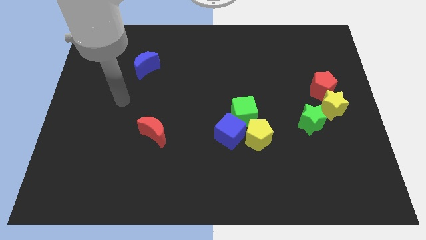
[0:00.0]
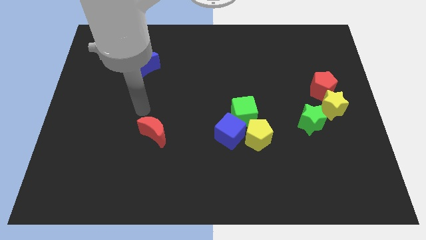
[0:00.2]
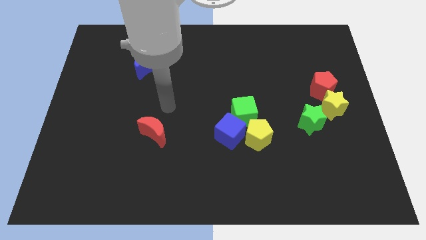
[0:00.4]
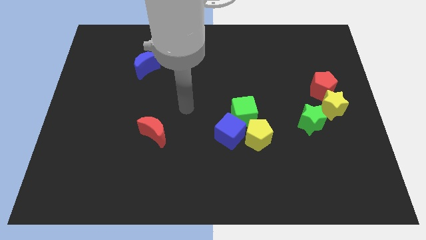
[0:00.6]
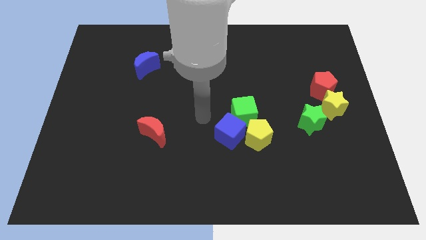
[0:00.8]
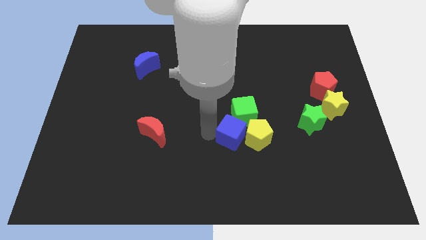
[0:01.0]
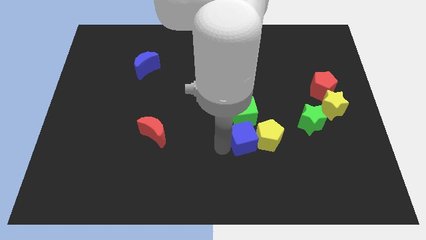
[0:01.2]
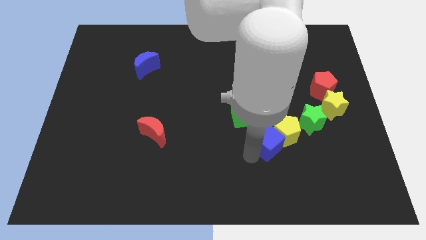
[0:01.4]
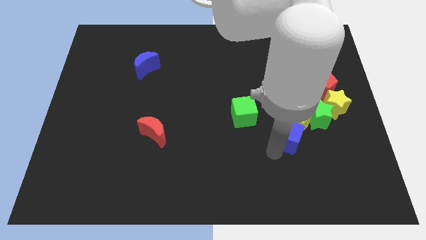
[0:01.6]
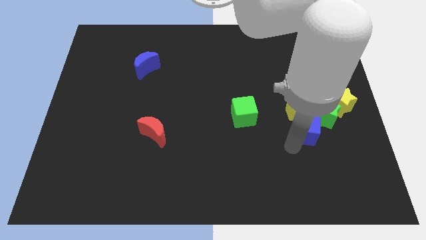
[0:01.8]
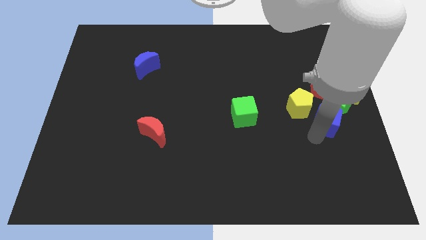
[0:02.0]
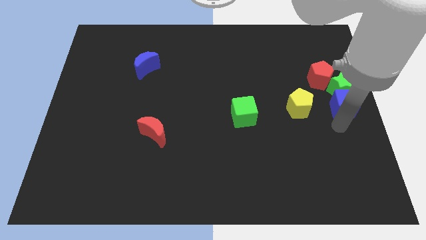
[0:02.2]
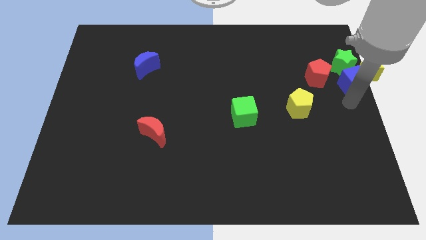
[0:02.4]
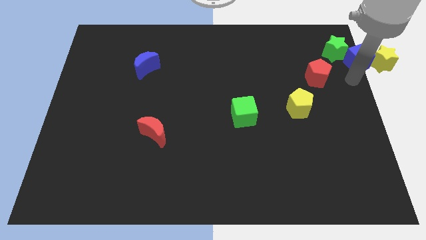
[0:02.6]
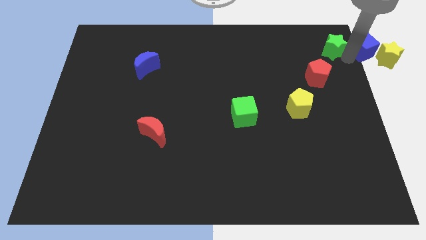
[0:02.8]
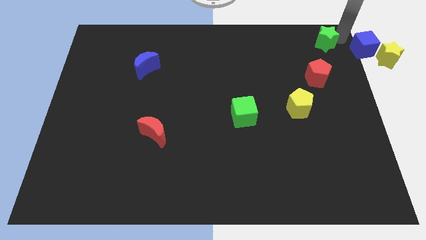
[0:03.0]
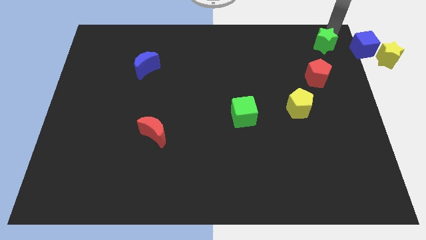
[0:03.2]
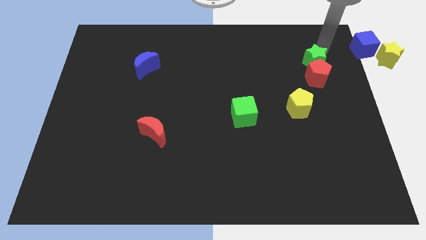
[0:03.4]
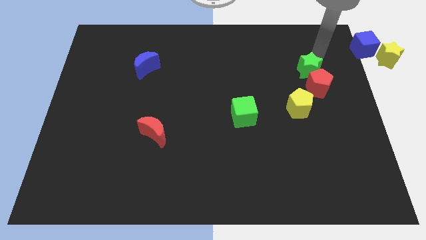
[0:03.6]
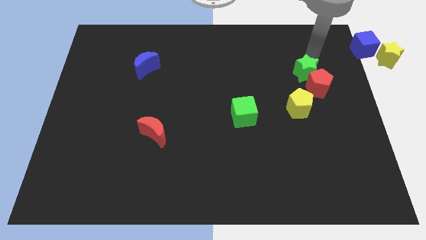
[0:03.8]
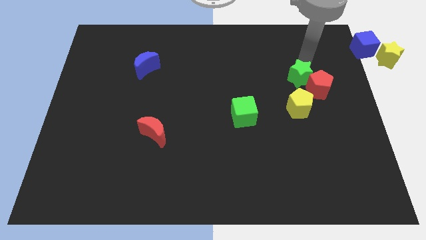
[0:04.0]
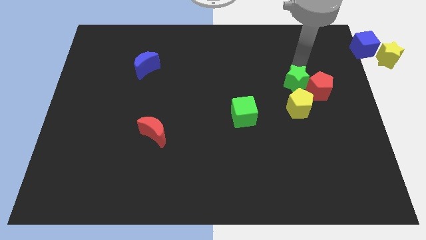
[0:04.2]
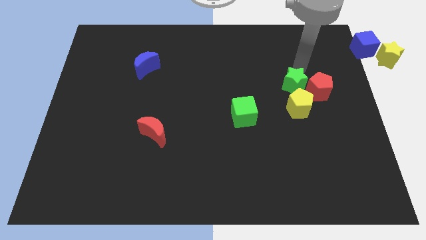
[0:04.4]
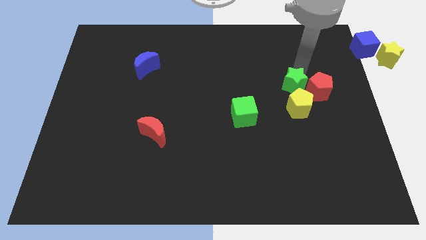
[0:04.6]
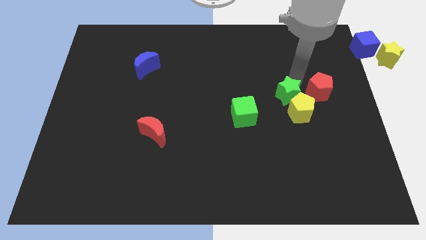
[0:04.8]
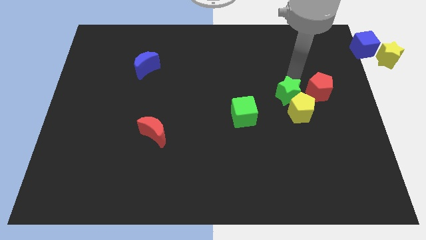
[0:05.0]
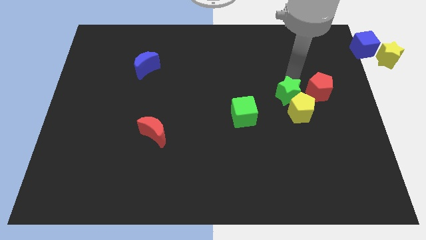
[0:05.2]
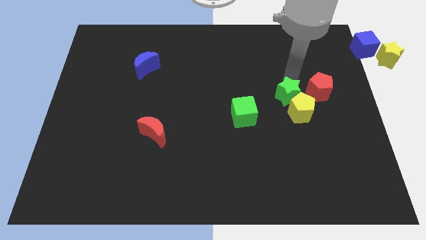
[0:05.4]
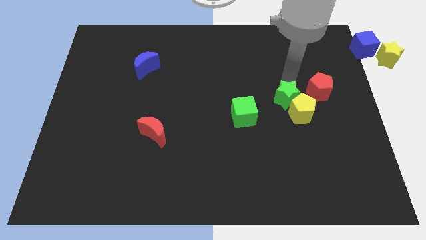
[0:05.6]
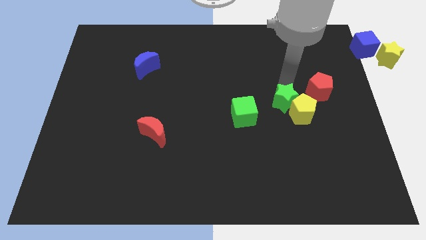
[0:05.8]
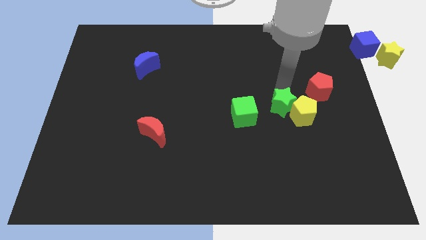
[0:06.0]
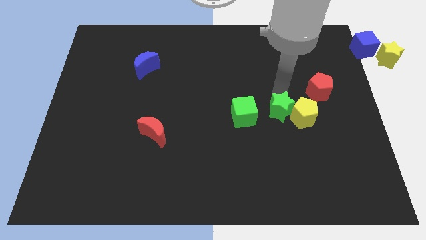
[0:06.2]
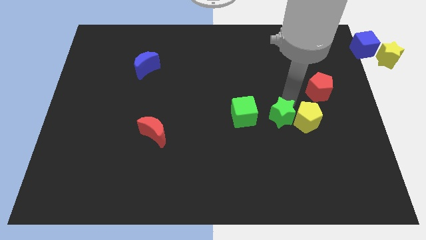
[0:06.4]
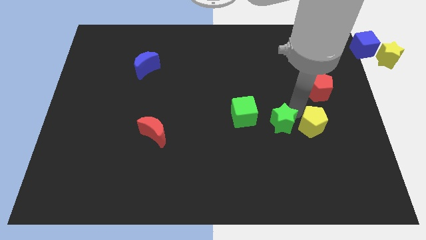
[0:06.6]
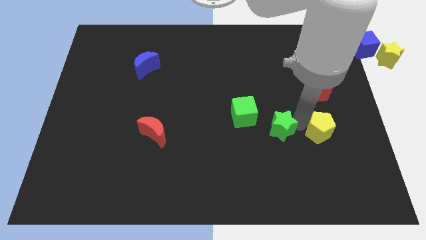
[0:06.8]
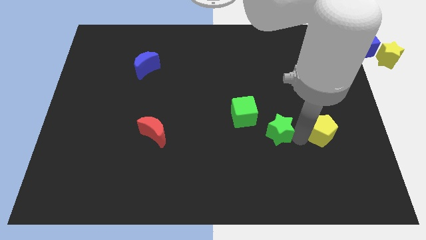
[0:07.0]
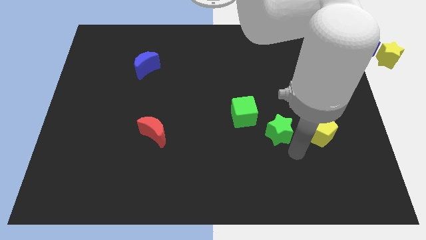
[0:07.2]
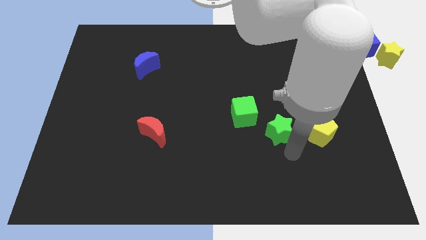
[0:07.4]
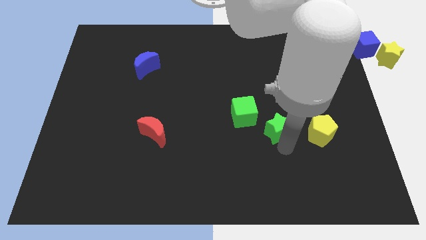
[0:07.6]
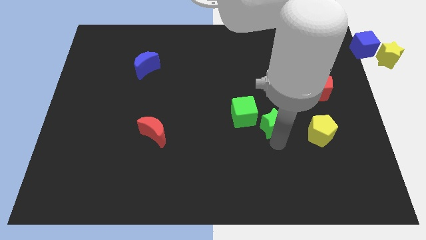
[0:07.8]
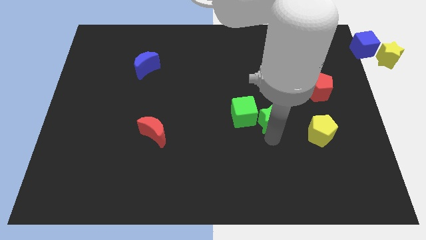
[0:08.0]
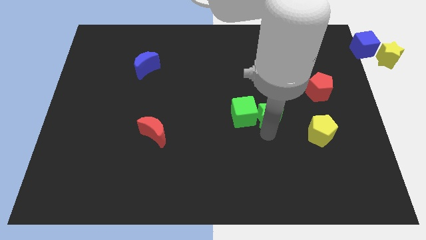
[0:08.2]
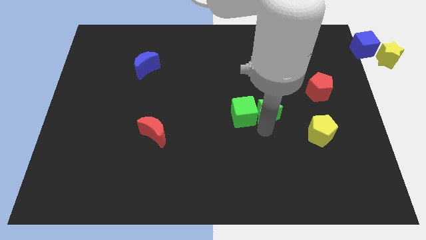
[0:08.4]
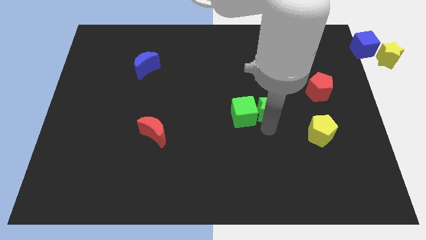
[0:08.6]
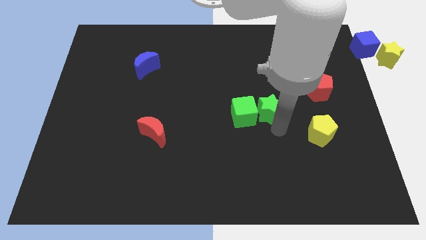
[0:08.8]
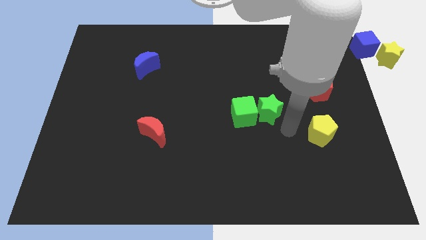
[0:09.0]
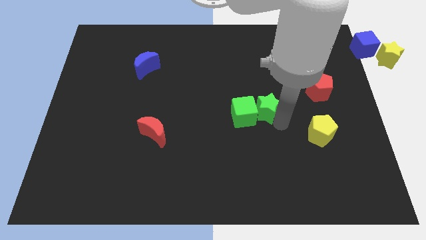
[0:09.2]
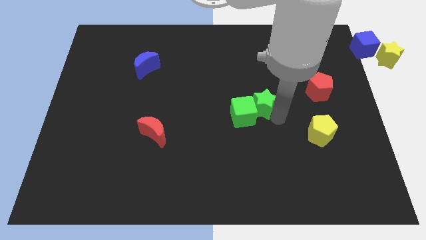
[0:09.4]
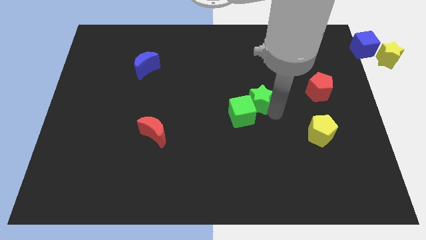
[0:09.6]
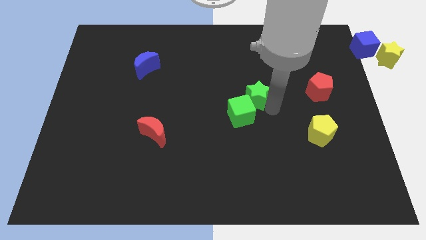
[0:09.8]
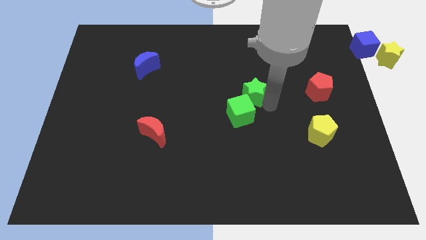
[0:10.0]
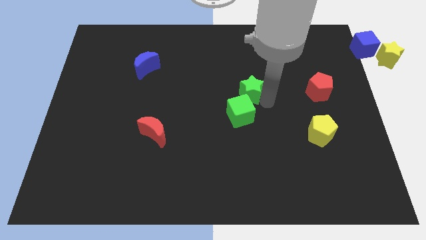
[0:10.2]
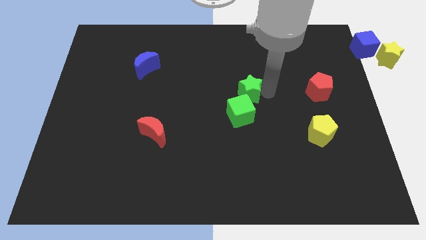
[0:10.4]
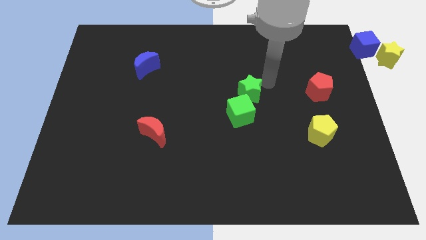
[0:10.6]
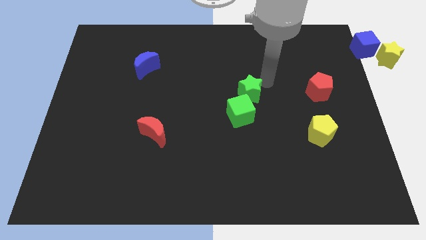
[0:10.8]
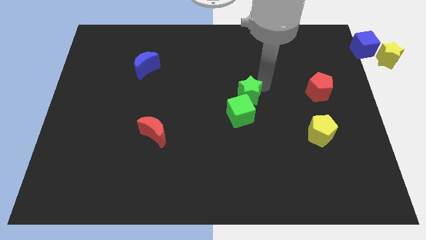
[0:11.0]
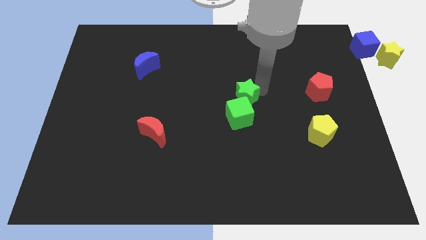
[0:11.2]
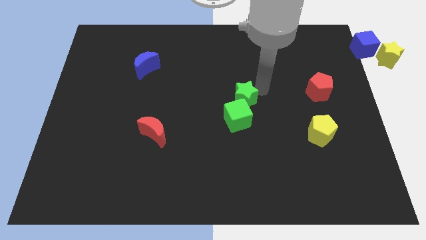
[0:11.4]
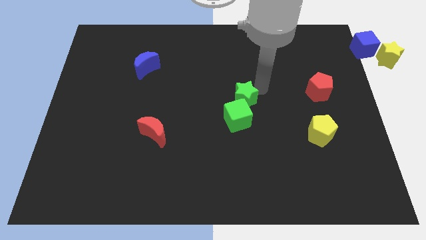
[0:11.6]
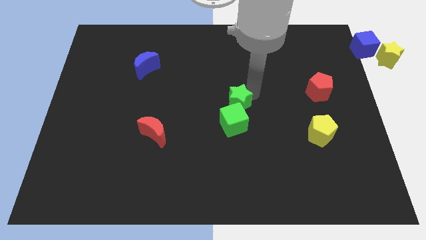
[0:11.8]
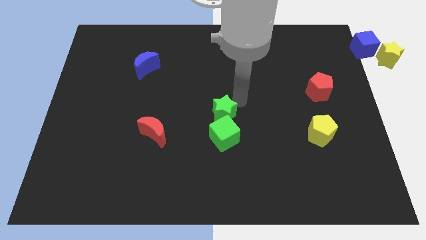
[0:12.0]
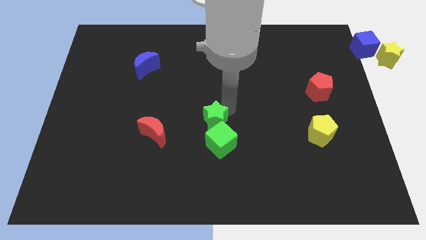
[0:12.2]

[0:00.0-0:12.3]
slide the green star to the right of the red moon
